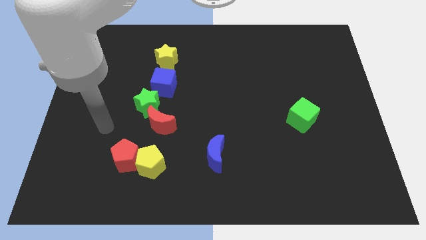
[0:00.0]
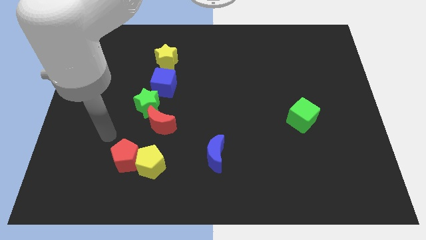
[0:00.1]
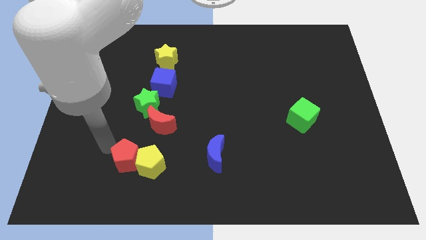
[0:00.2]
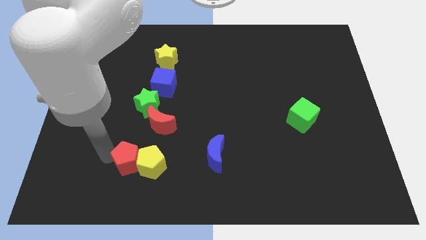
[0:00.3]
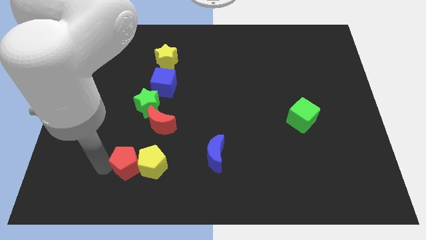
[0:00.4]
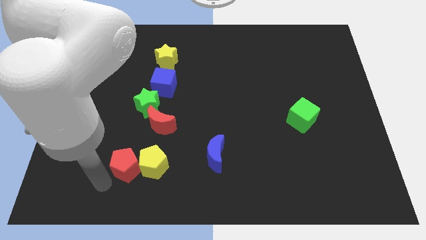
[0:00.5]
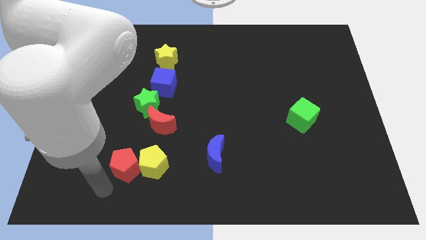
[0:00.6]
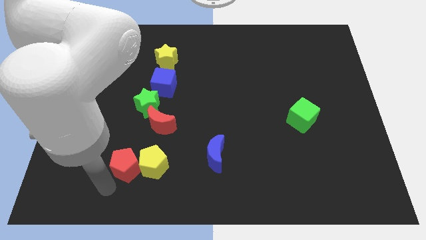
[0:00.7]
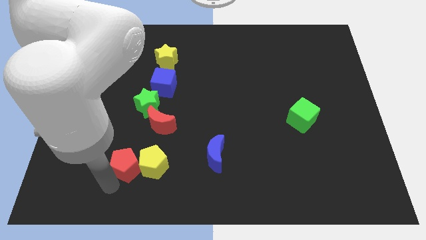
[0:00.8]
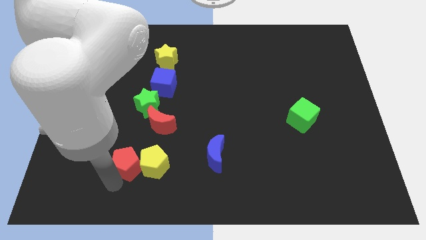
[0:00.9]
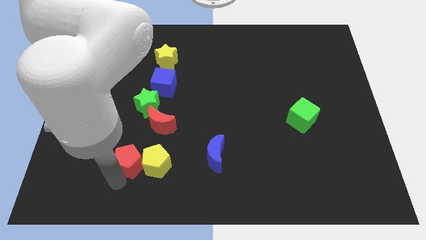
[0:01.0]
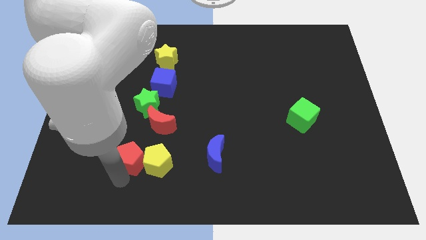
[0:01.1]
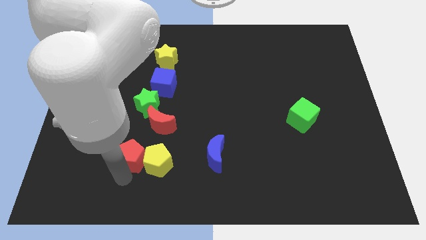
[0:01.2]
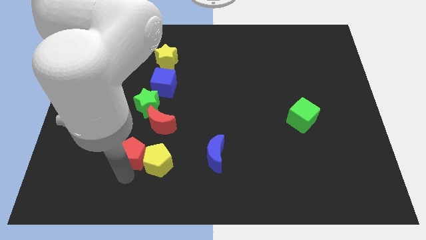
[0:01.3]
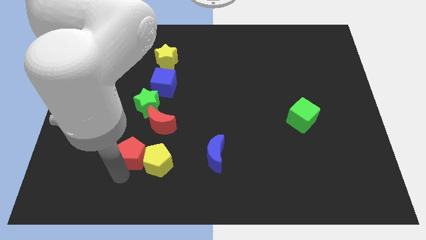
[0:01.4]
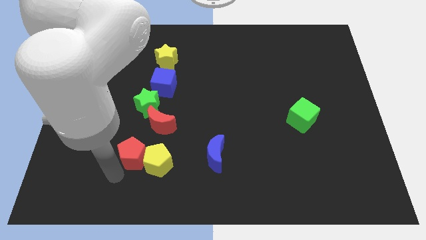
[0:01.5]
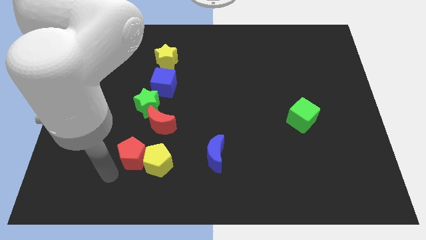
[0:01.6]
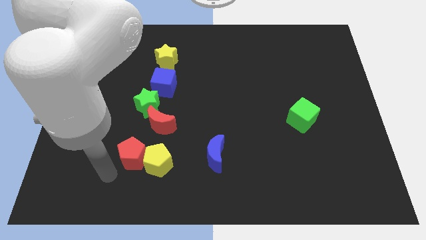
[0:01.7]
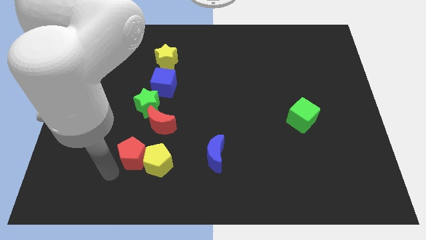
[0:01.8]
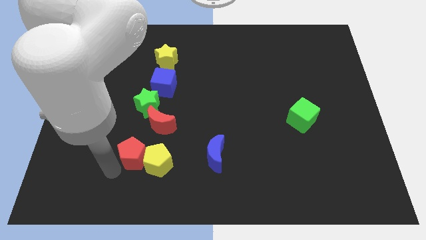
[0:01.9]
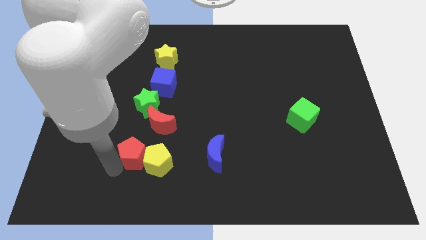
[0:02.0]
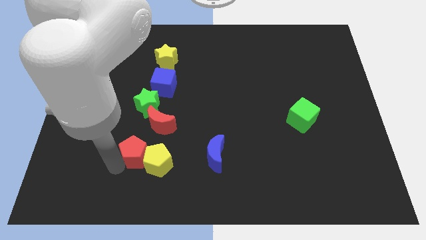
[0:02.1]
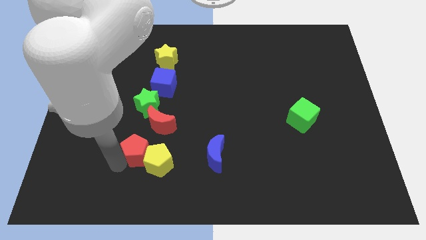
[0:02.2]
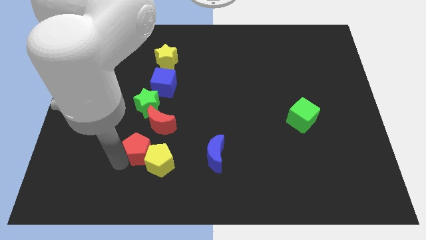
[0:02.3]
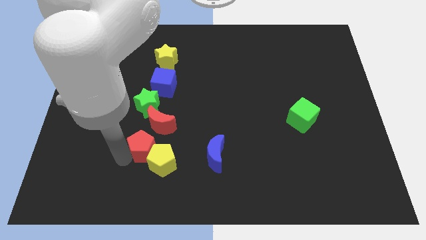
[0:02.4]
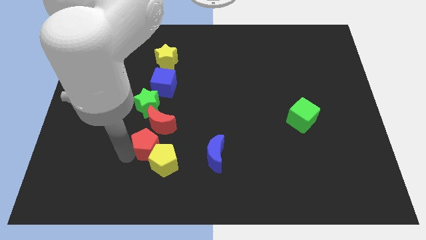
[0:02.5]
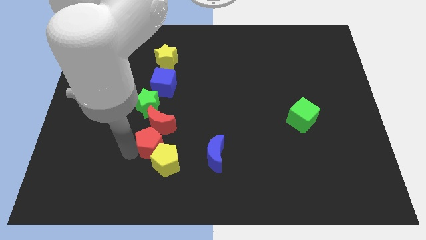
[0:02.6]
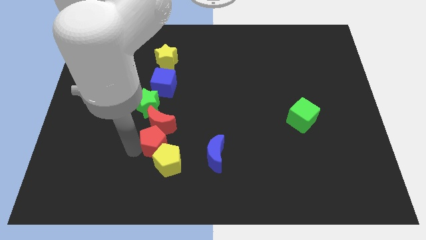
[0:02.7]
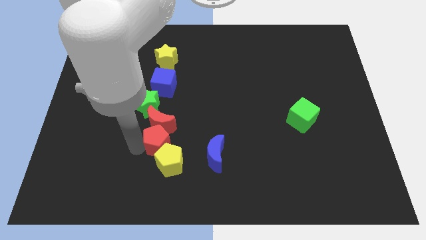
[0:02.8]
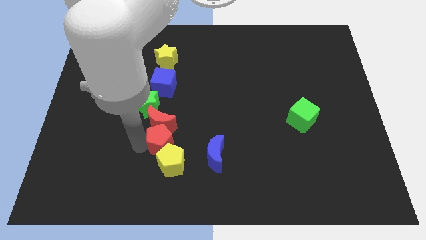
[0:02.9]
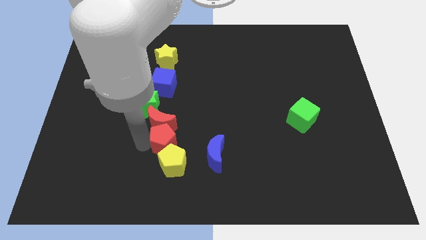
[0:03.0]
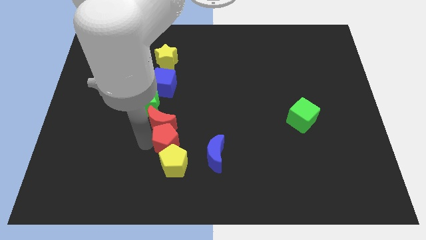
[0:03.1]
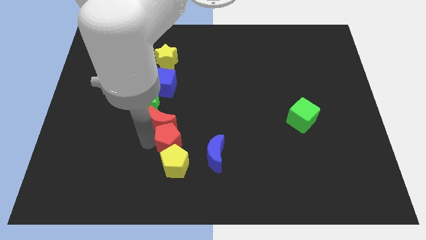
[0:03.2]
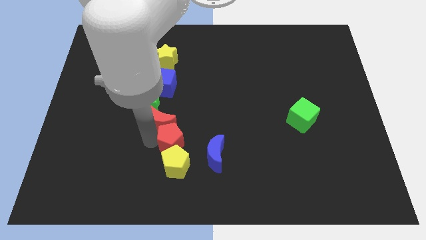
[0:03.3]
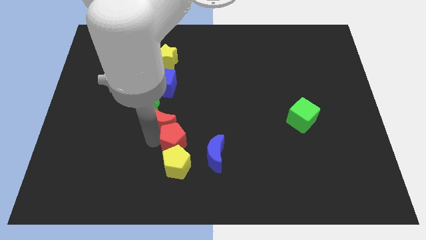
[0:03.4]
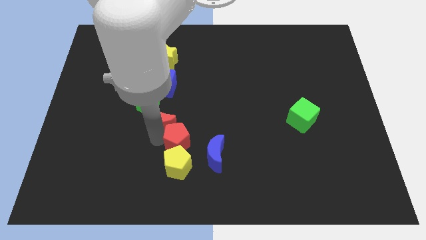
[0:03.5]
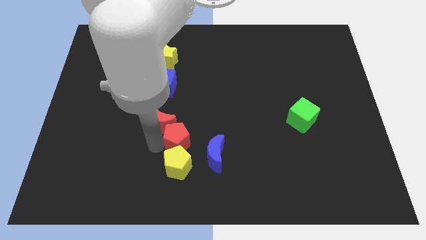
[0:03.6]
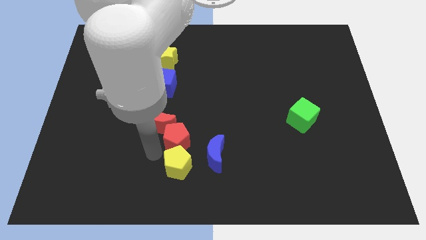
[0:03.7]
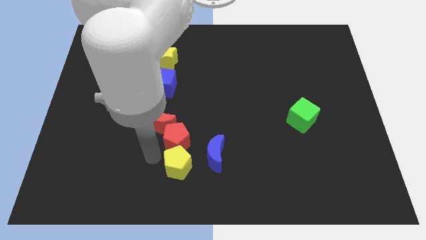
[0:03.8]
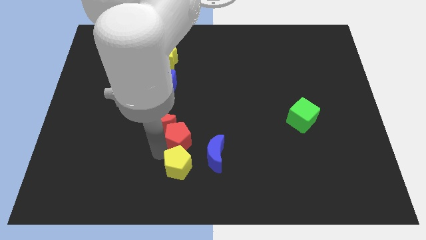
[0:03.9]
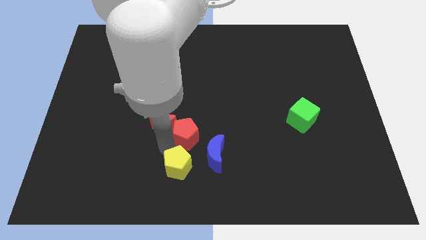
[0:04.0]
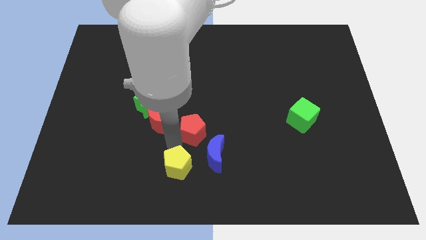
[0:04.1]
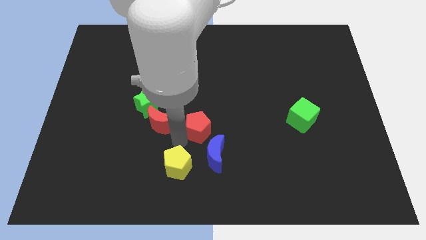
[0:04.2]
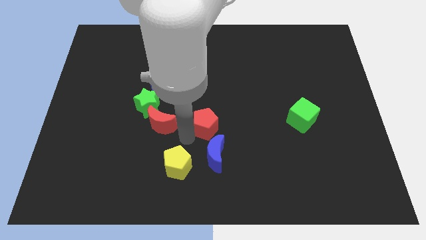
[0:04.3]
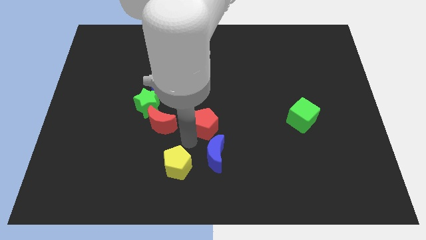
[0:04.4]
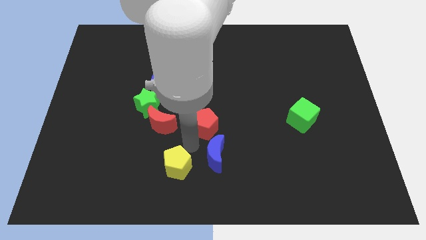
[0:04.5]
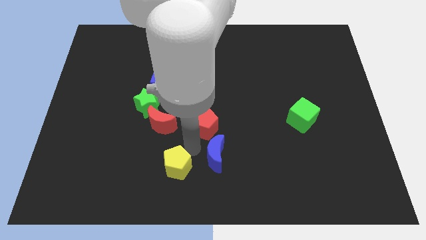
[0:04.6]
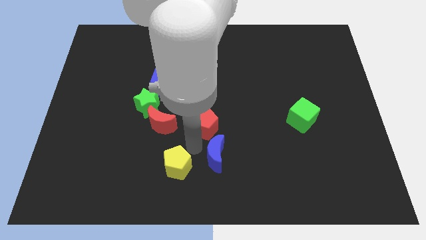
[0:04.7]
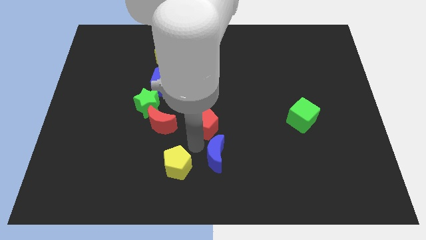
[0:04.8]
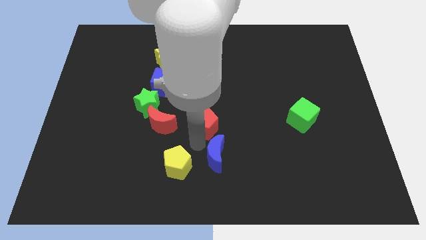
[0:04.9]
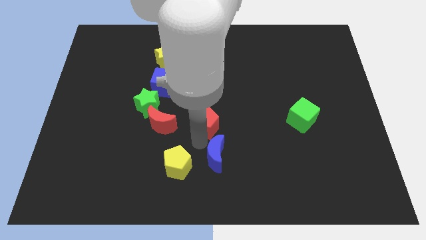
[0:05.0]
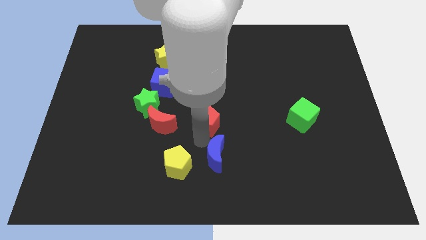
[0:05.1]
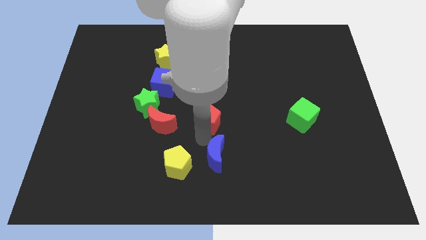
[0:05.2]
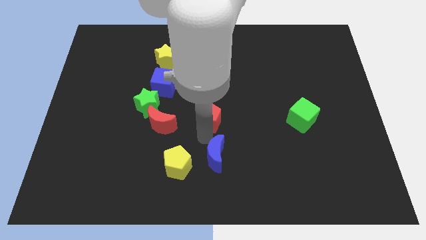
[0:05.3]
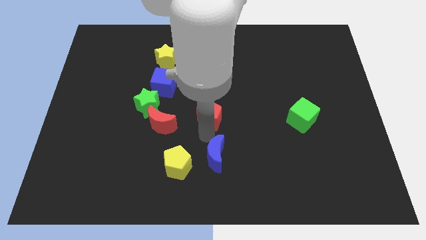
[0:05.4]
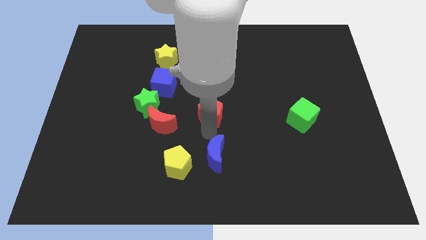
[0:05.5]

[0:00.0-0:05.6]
slide the red pentagon up and right diagonally

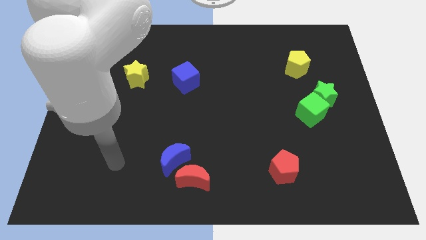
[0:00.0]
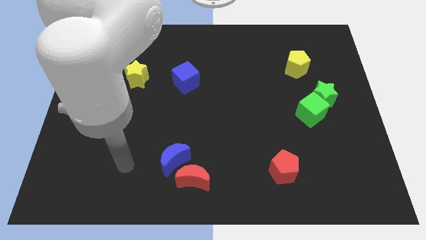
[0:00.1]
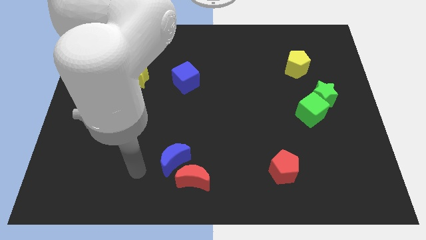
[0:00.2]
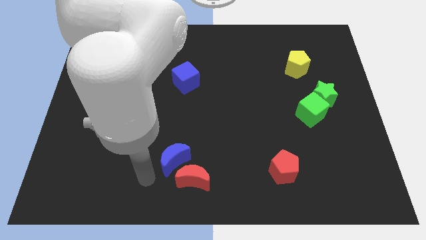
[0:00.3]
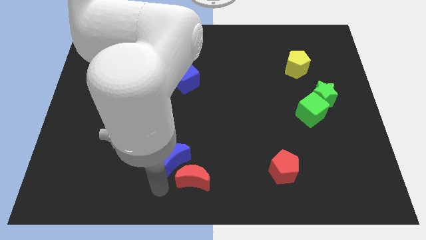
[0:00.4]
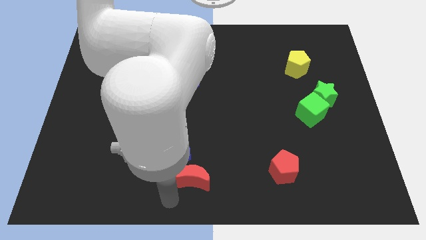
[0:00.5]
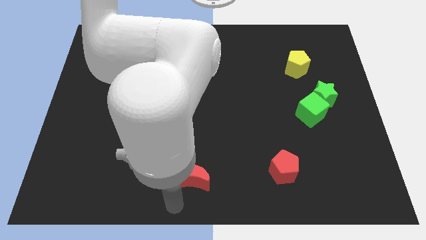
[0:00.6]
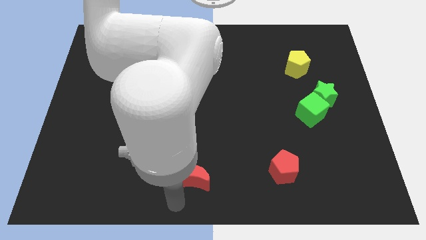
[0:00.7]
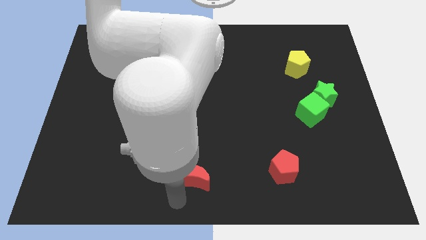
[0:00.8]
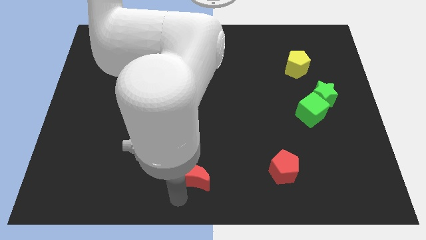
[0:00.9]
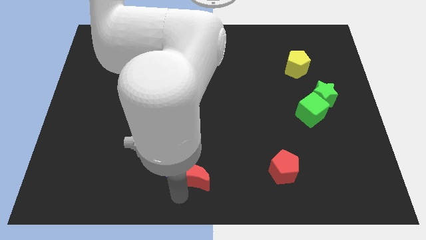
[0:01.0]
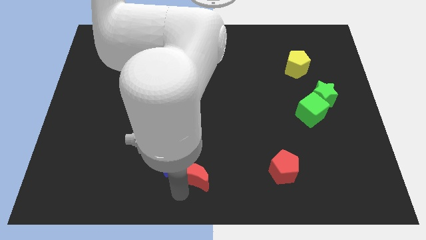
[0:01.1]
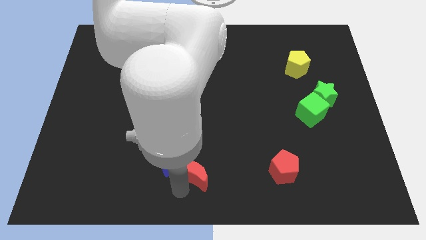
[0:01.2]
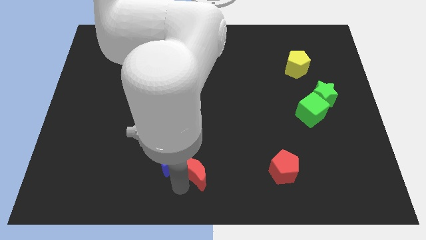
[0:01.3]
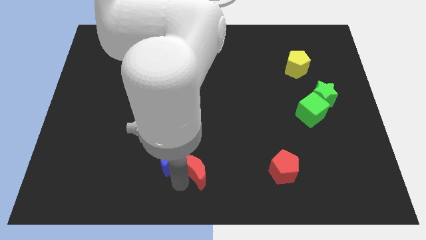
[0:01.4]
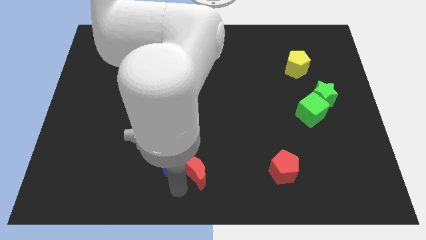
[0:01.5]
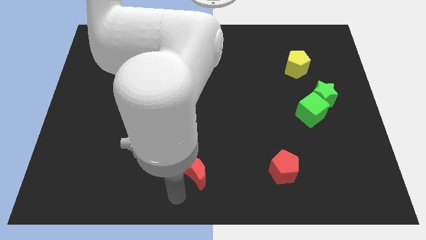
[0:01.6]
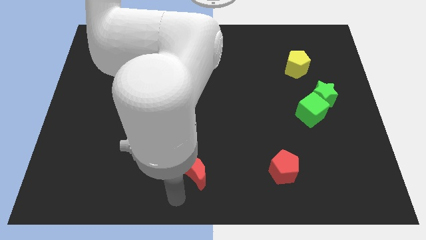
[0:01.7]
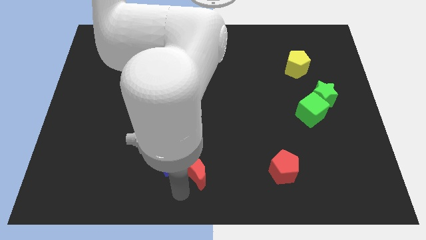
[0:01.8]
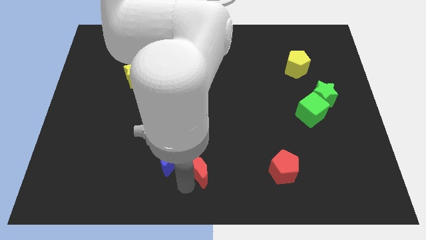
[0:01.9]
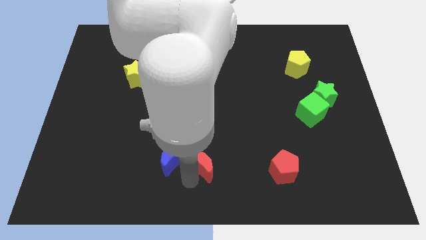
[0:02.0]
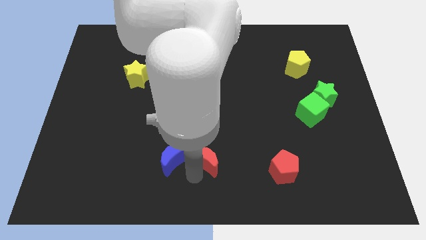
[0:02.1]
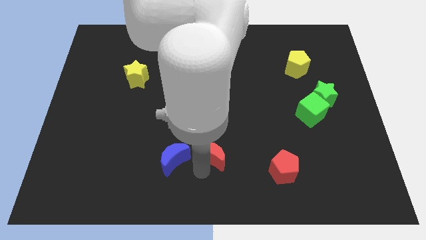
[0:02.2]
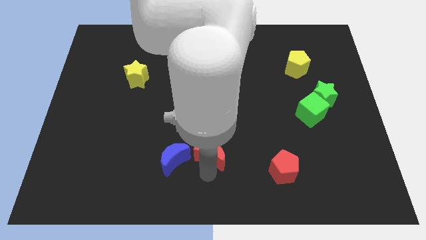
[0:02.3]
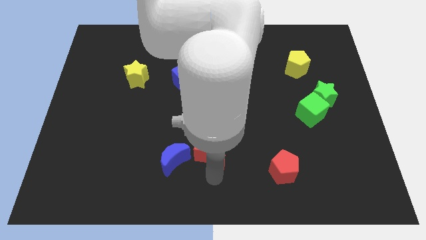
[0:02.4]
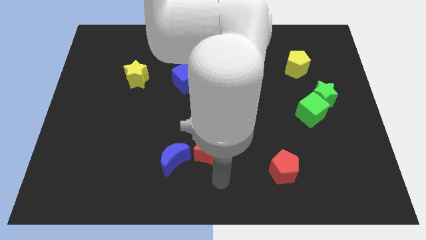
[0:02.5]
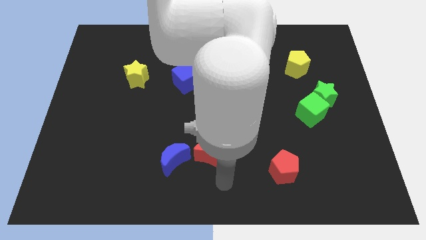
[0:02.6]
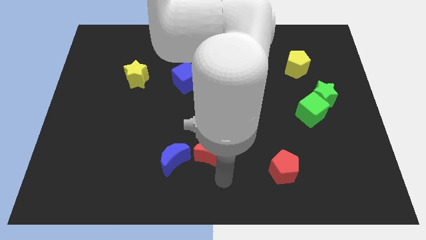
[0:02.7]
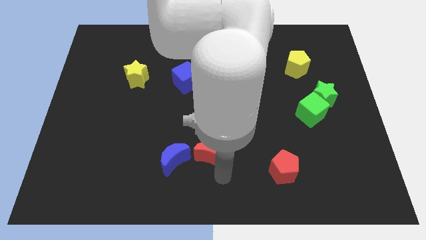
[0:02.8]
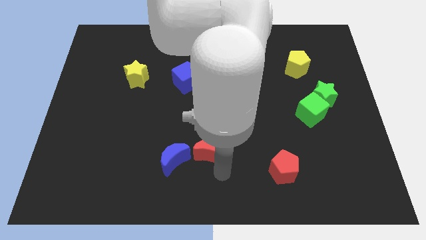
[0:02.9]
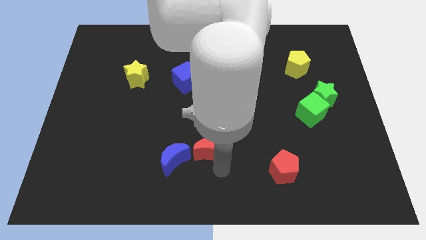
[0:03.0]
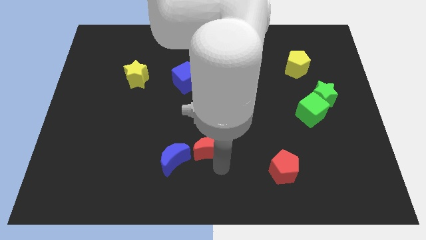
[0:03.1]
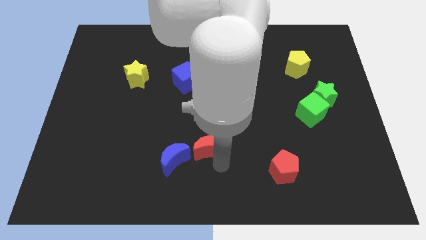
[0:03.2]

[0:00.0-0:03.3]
move the red moon a little up
